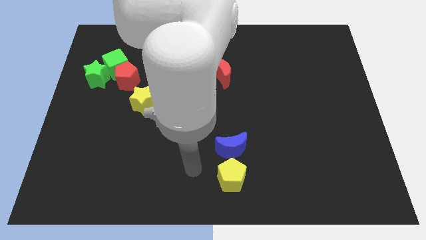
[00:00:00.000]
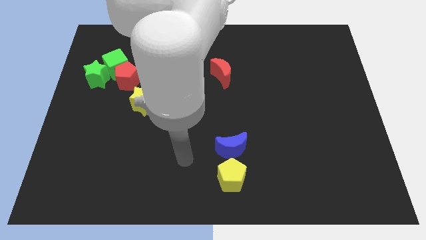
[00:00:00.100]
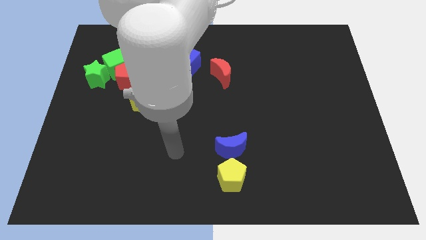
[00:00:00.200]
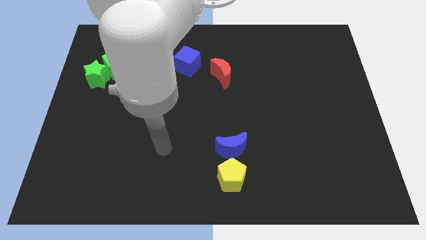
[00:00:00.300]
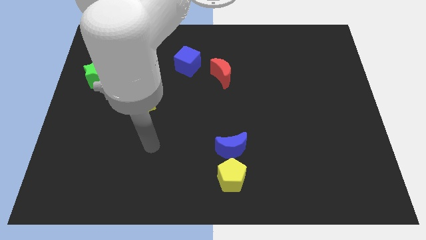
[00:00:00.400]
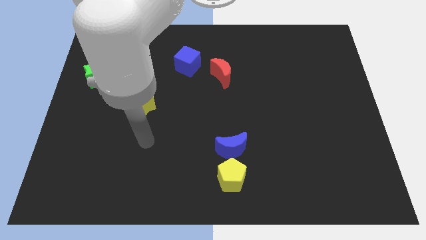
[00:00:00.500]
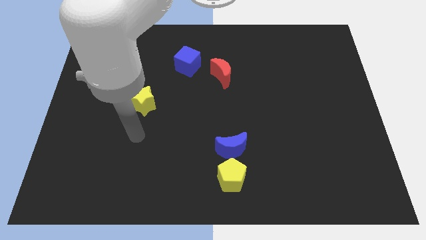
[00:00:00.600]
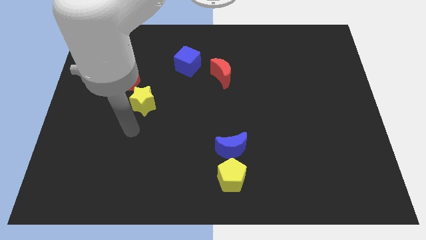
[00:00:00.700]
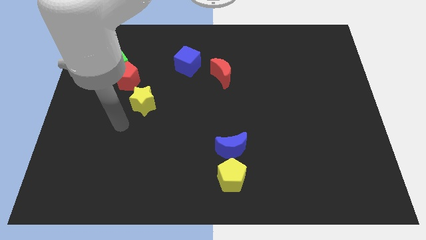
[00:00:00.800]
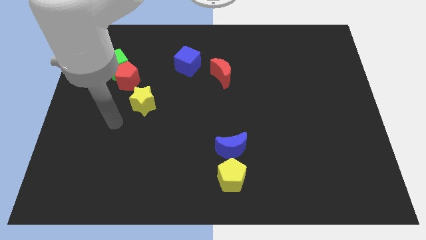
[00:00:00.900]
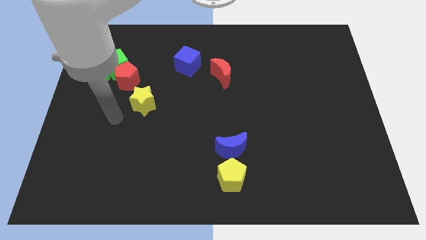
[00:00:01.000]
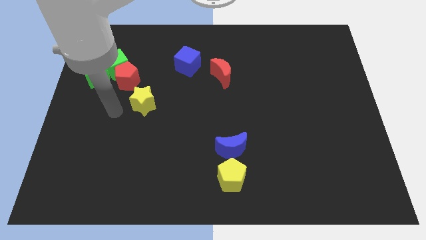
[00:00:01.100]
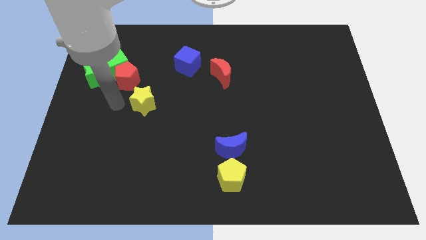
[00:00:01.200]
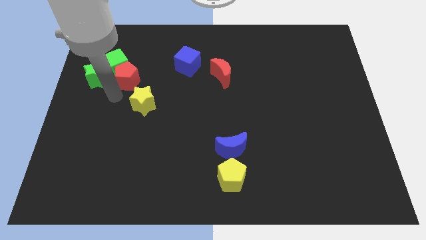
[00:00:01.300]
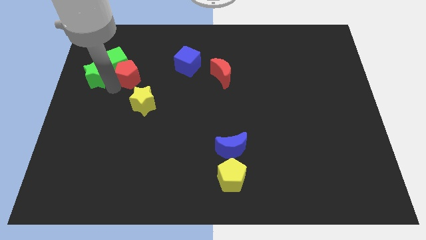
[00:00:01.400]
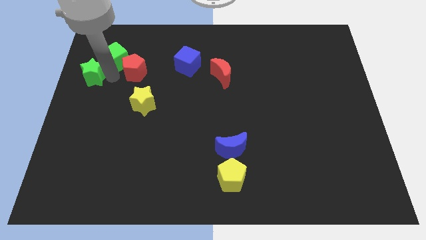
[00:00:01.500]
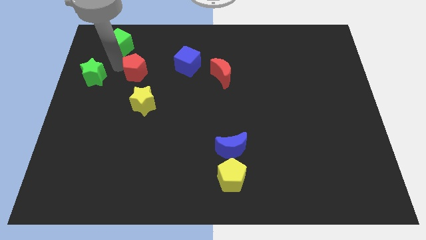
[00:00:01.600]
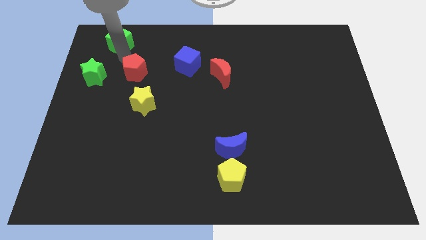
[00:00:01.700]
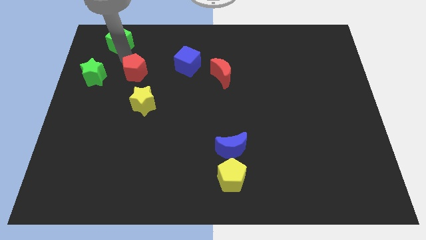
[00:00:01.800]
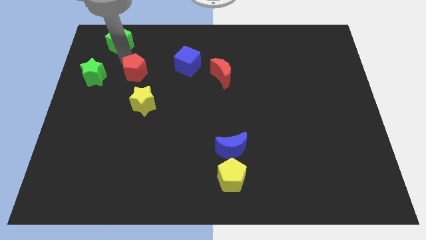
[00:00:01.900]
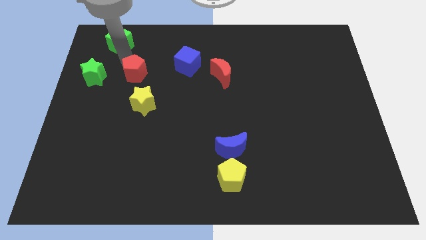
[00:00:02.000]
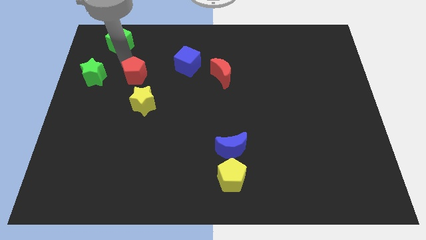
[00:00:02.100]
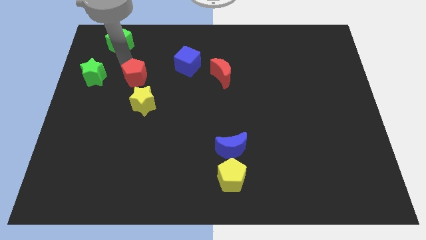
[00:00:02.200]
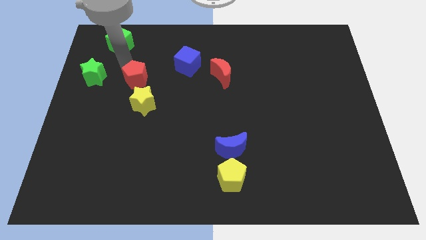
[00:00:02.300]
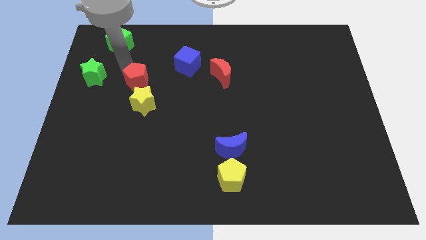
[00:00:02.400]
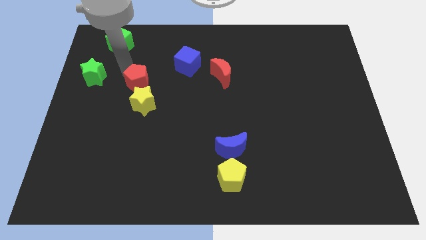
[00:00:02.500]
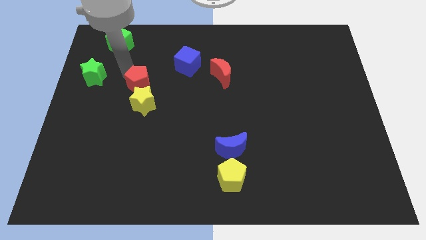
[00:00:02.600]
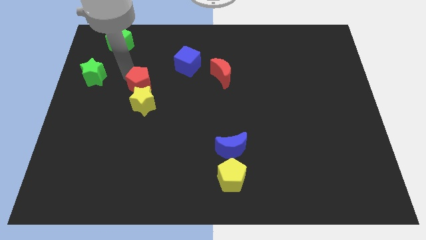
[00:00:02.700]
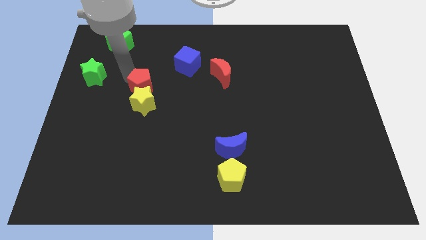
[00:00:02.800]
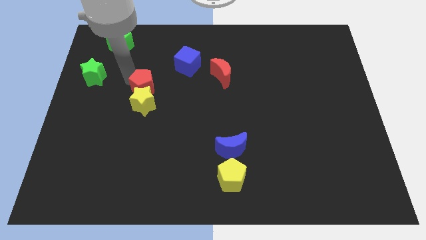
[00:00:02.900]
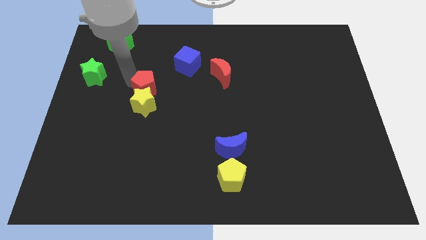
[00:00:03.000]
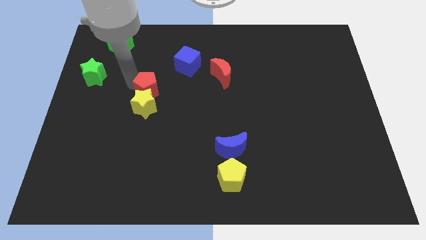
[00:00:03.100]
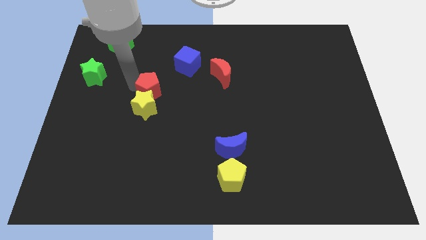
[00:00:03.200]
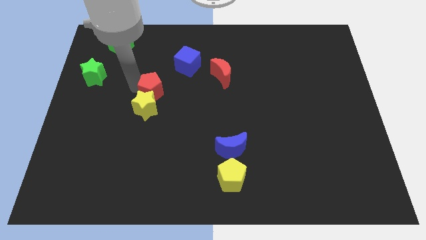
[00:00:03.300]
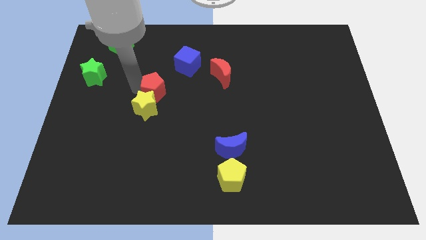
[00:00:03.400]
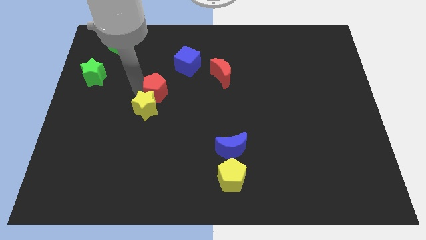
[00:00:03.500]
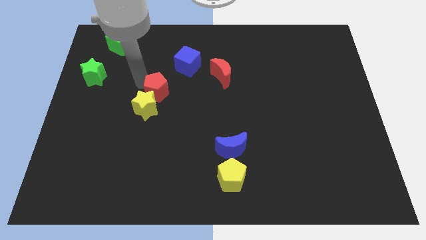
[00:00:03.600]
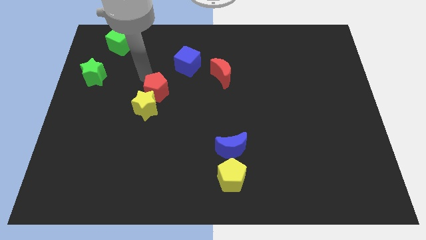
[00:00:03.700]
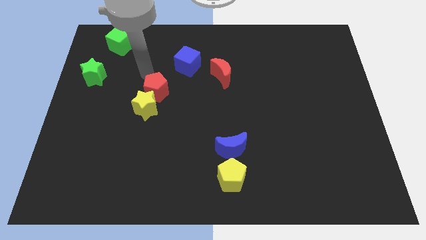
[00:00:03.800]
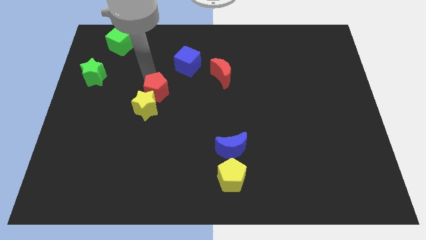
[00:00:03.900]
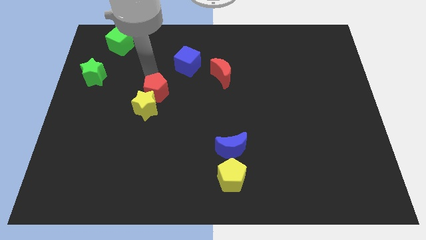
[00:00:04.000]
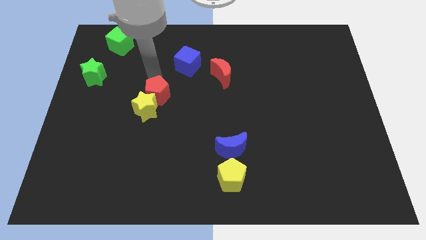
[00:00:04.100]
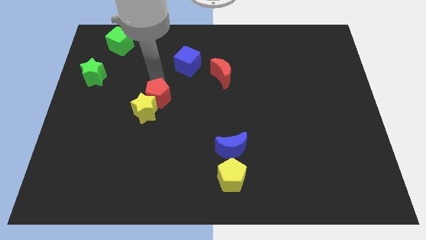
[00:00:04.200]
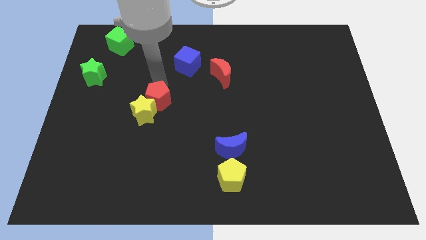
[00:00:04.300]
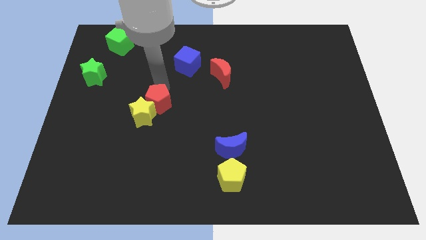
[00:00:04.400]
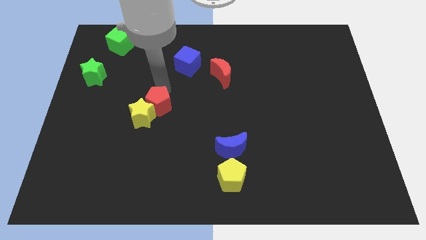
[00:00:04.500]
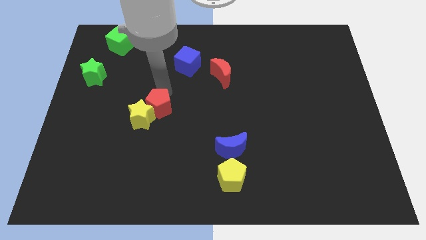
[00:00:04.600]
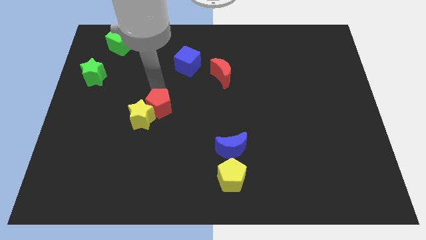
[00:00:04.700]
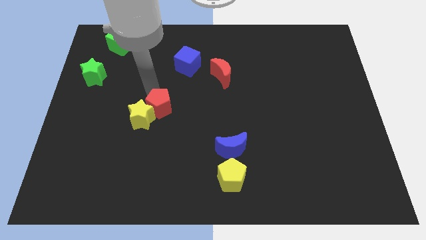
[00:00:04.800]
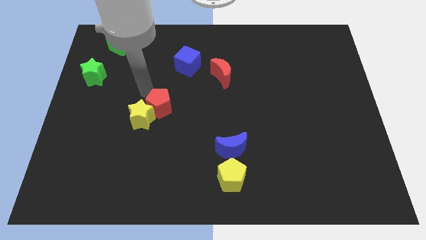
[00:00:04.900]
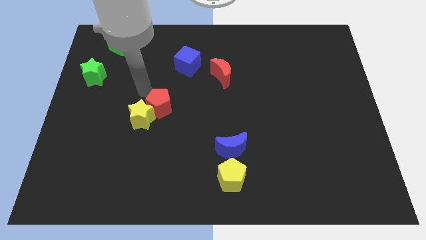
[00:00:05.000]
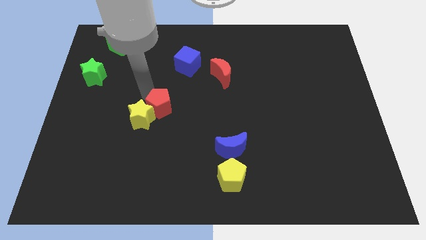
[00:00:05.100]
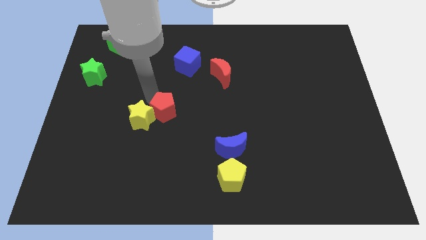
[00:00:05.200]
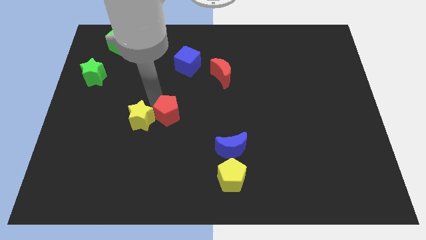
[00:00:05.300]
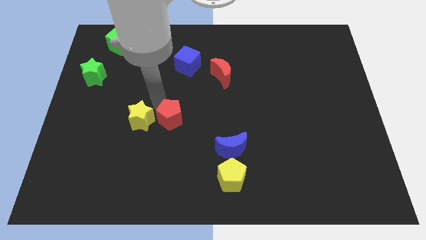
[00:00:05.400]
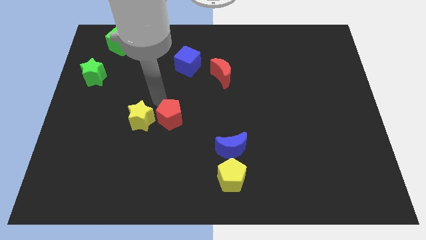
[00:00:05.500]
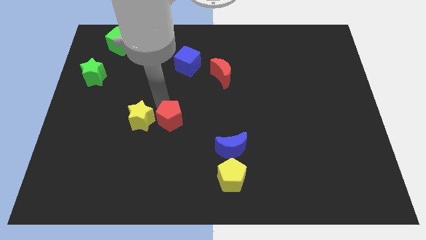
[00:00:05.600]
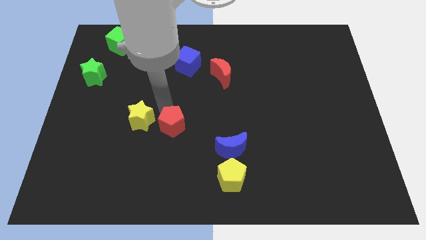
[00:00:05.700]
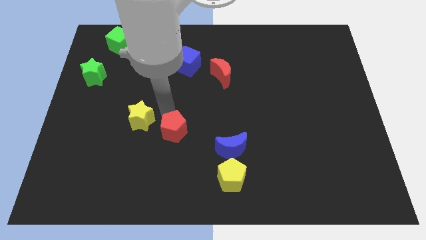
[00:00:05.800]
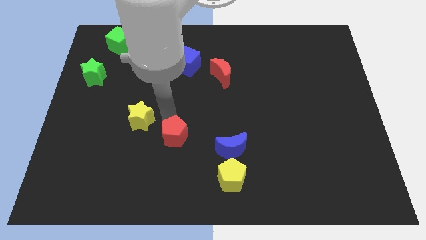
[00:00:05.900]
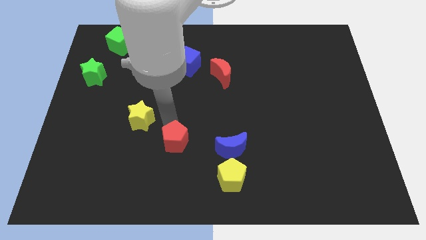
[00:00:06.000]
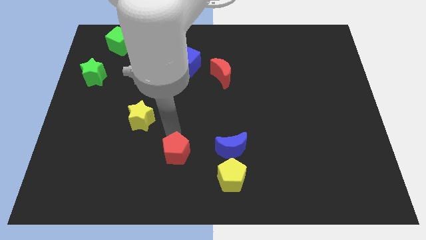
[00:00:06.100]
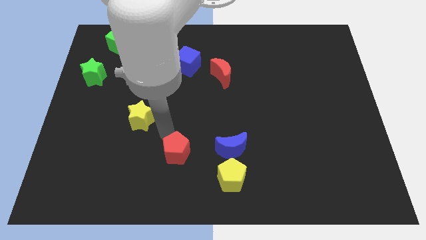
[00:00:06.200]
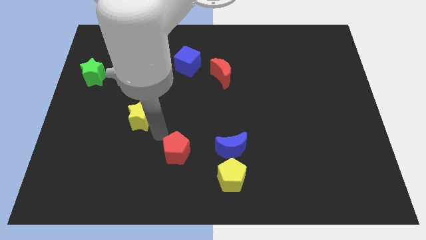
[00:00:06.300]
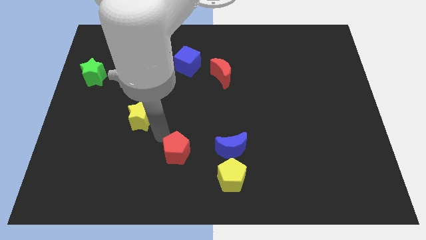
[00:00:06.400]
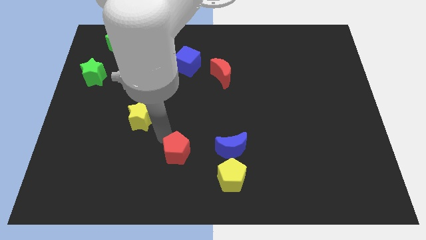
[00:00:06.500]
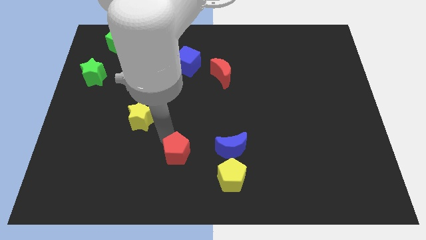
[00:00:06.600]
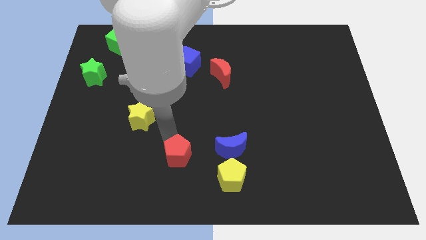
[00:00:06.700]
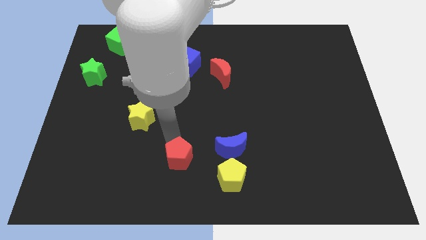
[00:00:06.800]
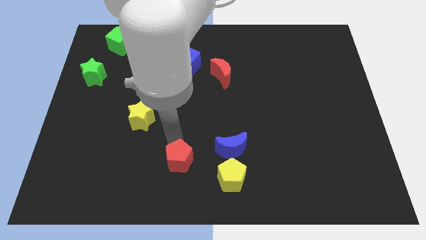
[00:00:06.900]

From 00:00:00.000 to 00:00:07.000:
slide the red pentagon to the bottom side
